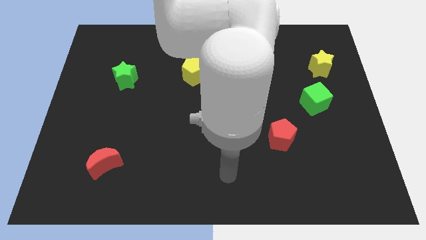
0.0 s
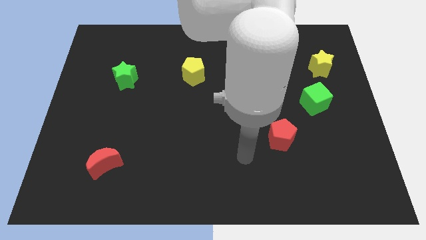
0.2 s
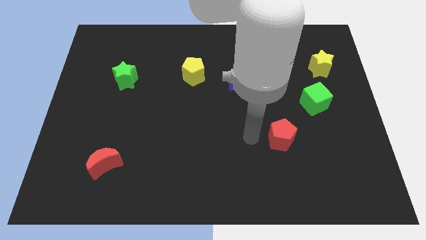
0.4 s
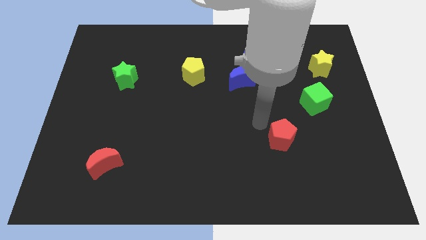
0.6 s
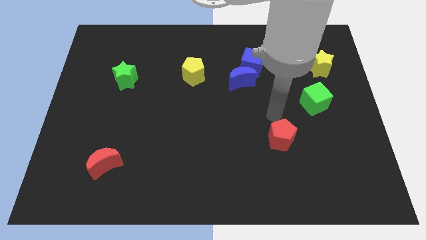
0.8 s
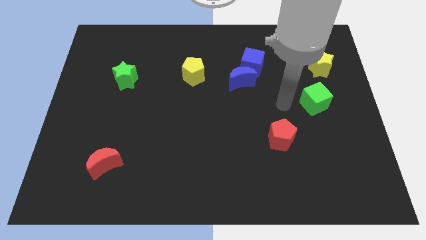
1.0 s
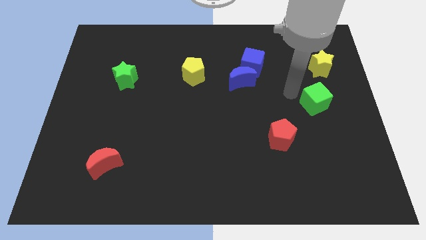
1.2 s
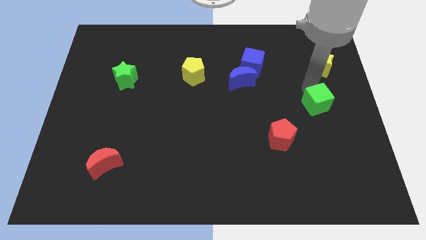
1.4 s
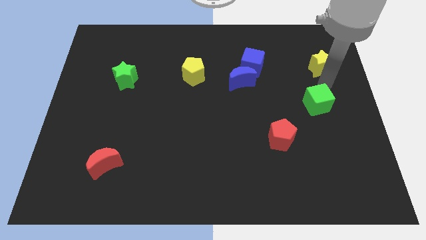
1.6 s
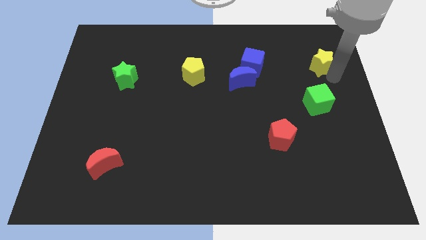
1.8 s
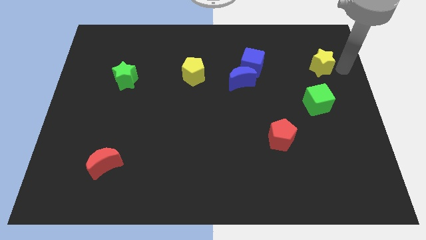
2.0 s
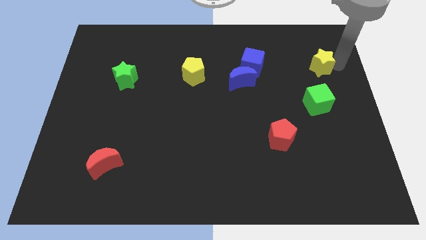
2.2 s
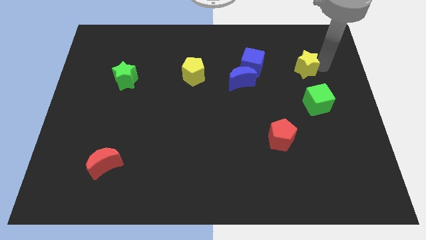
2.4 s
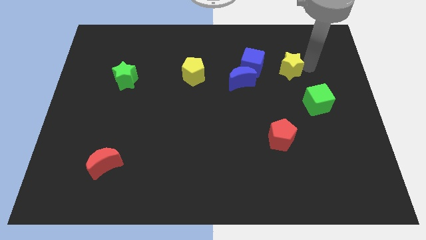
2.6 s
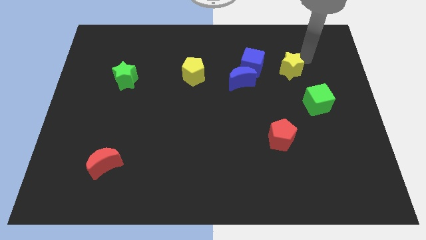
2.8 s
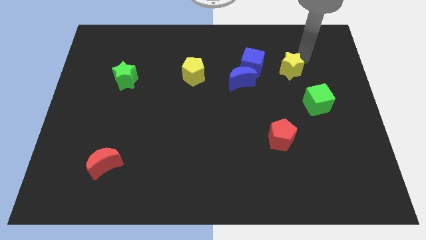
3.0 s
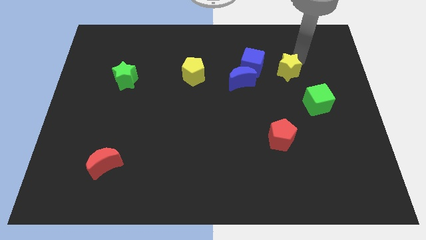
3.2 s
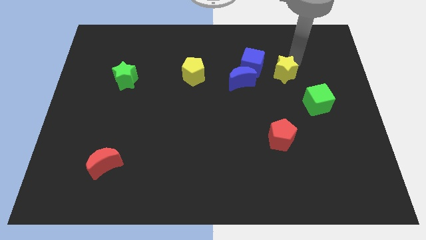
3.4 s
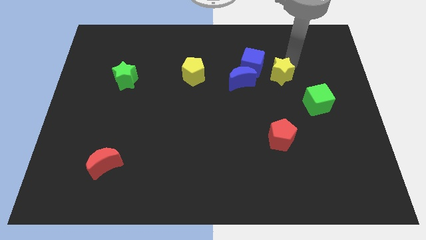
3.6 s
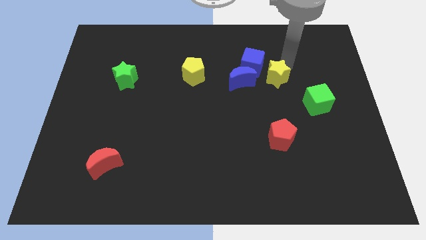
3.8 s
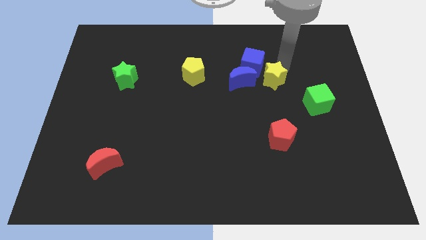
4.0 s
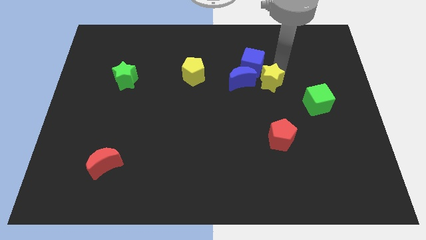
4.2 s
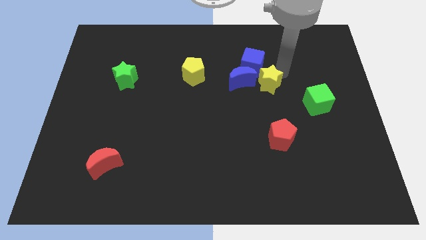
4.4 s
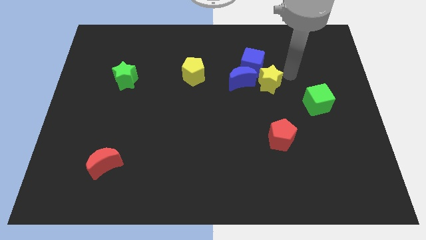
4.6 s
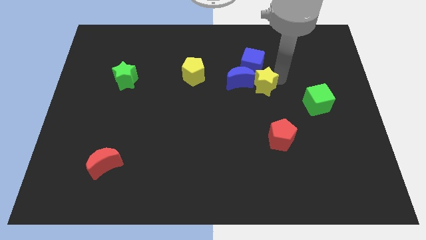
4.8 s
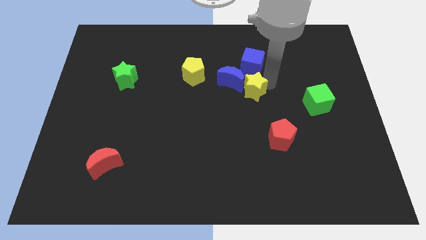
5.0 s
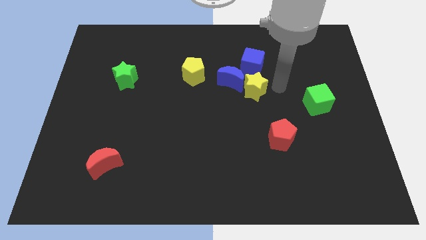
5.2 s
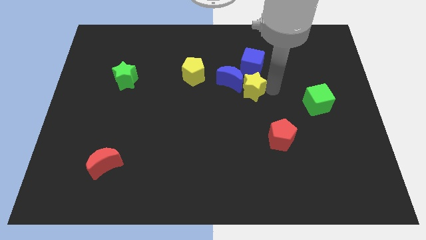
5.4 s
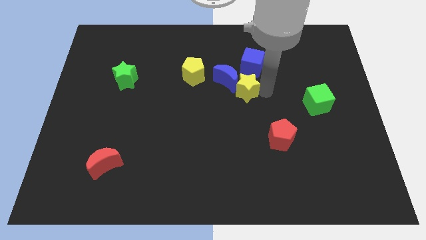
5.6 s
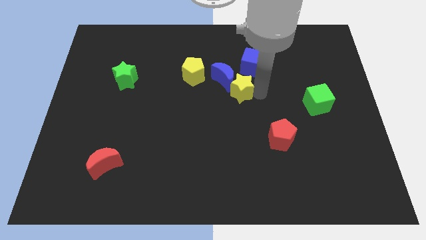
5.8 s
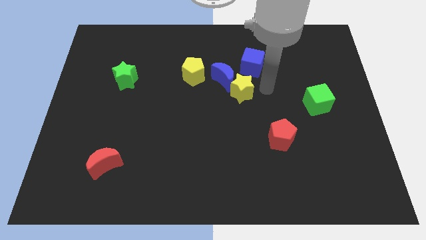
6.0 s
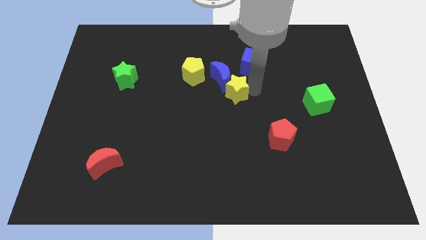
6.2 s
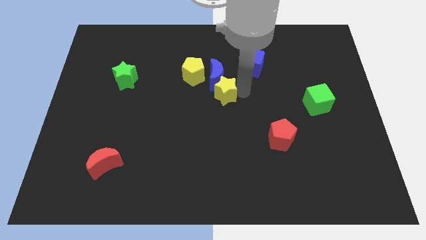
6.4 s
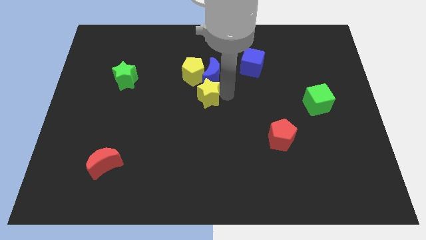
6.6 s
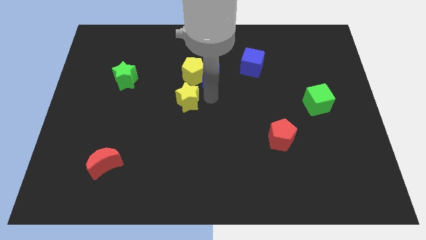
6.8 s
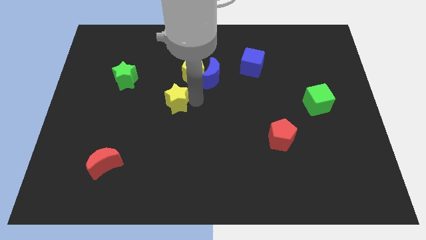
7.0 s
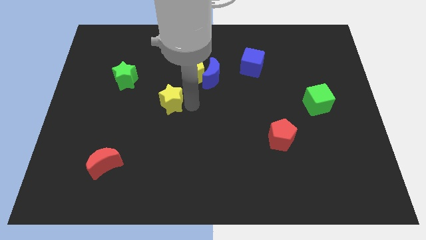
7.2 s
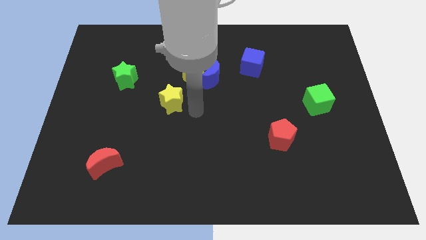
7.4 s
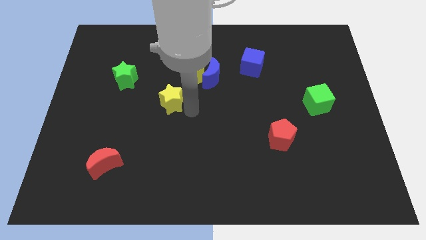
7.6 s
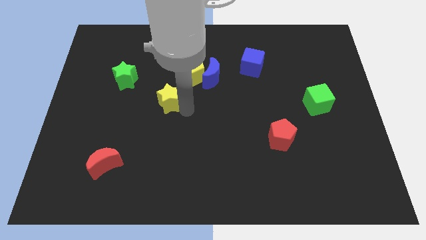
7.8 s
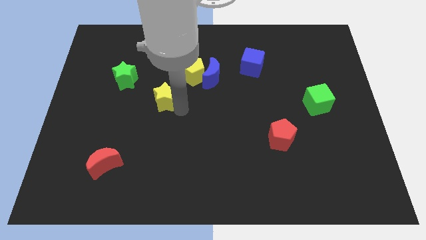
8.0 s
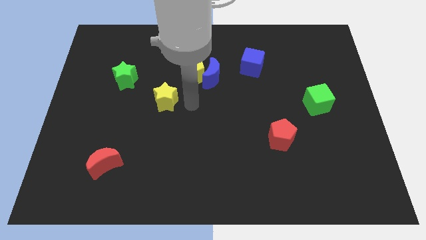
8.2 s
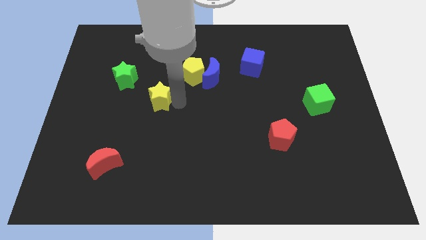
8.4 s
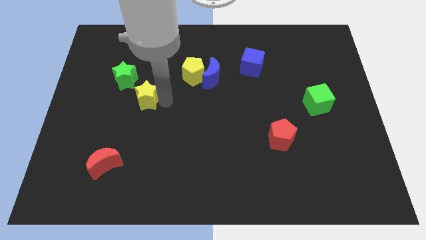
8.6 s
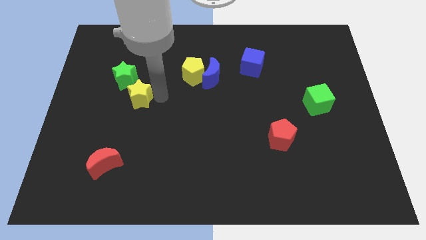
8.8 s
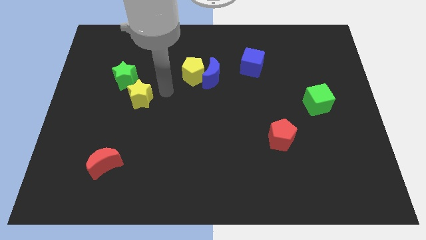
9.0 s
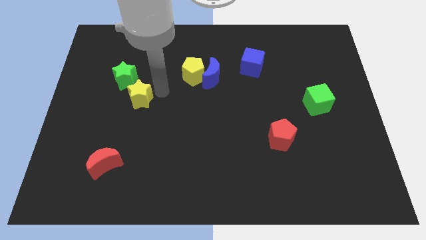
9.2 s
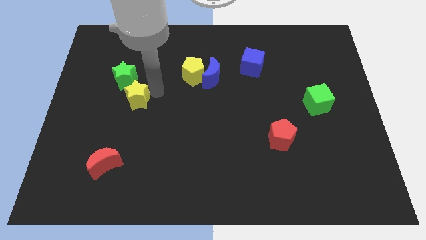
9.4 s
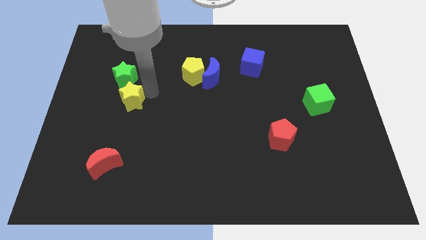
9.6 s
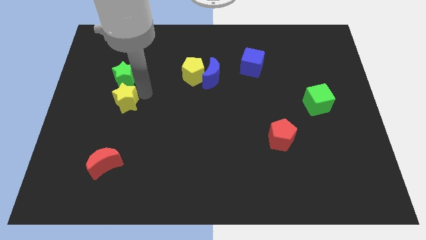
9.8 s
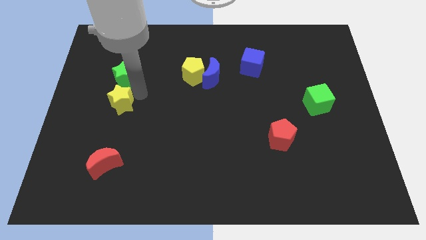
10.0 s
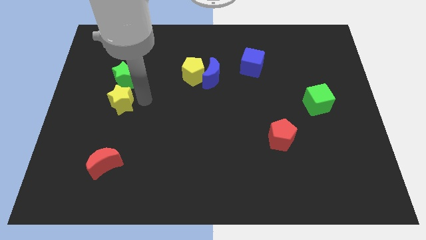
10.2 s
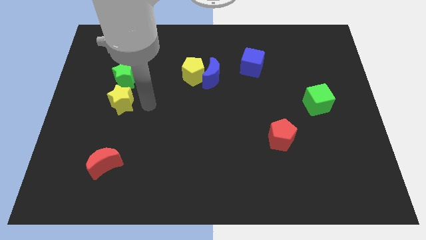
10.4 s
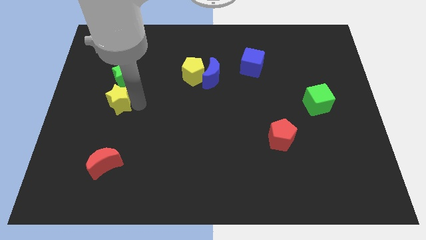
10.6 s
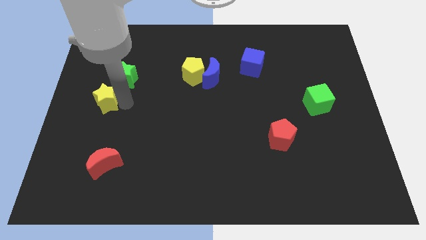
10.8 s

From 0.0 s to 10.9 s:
push the yellow star to the center left

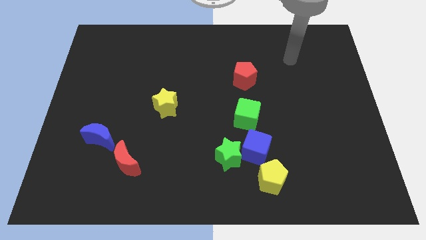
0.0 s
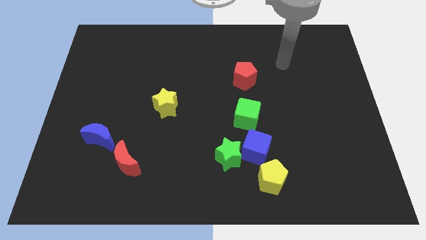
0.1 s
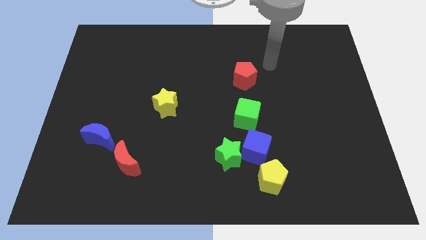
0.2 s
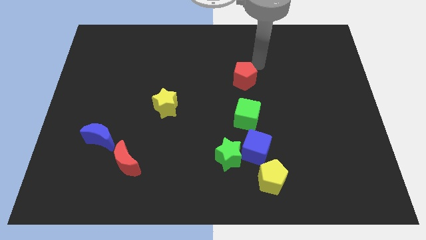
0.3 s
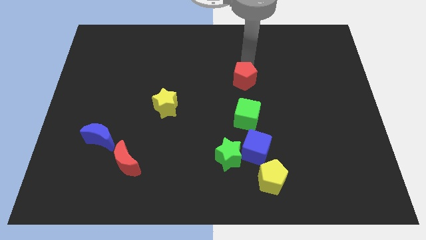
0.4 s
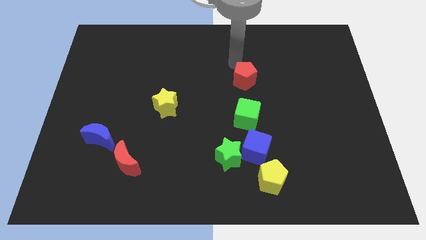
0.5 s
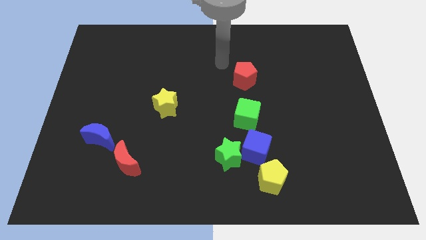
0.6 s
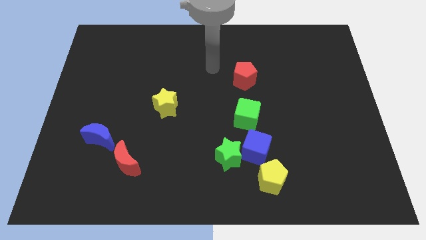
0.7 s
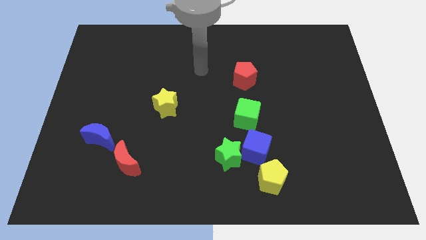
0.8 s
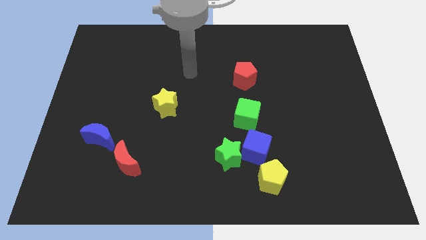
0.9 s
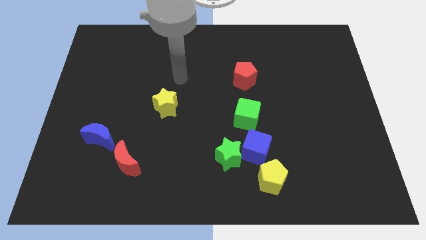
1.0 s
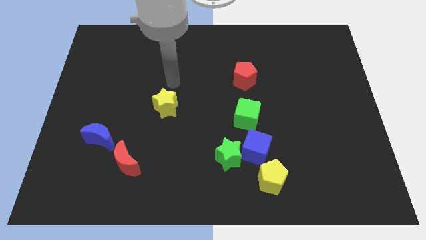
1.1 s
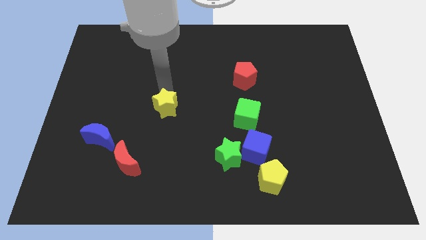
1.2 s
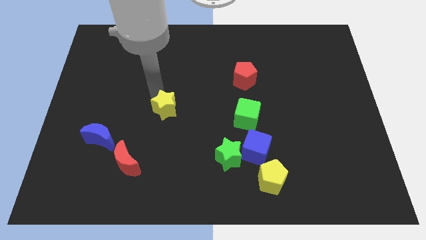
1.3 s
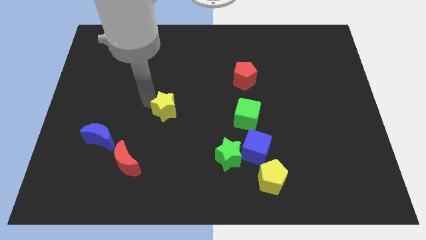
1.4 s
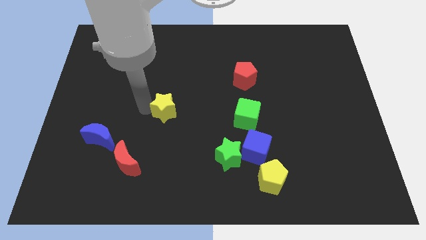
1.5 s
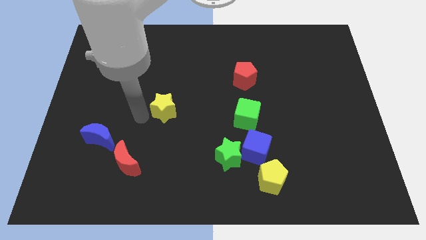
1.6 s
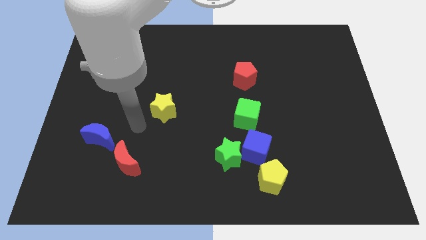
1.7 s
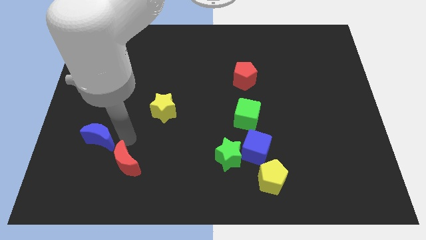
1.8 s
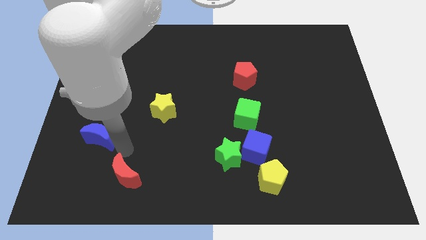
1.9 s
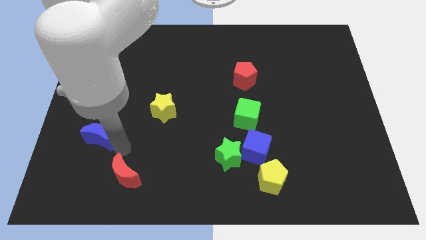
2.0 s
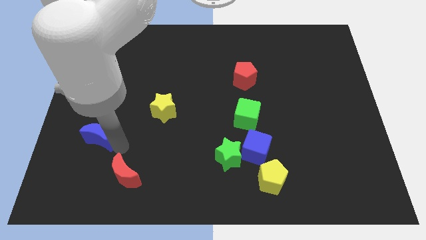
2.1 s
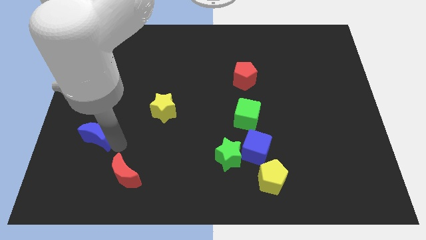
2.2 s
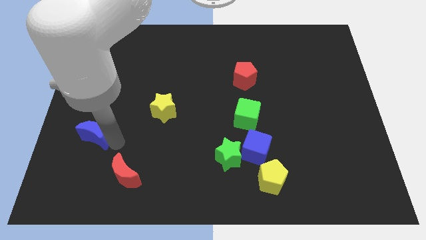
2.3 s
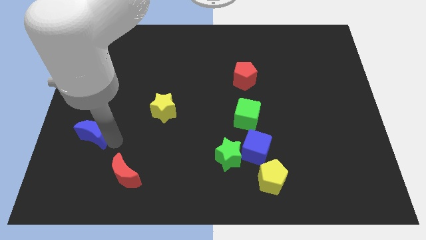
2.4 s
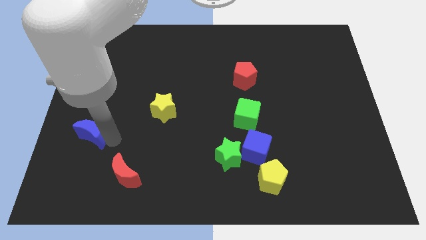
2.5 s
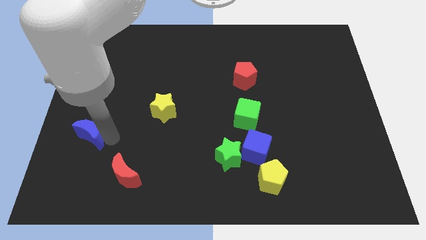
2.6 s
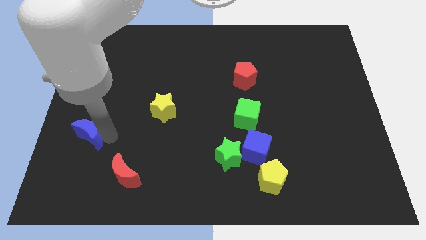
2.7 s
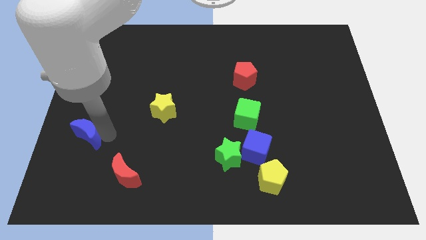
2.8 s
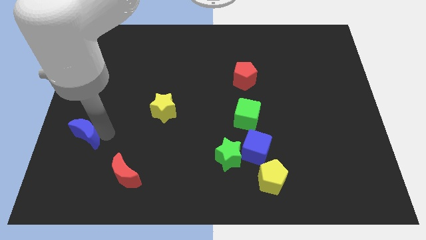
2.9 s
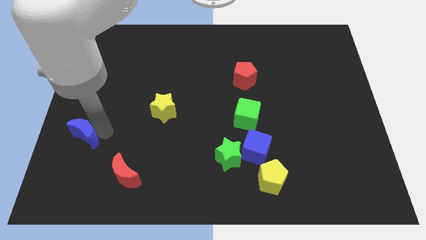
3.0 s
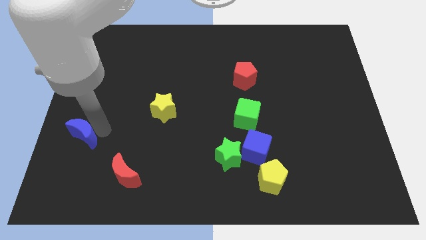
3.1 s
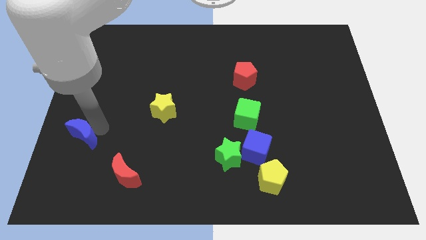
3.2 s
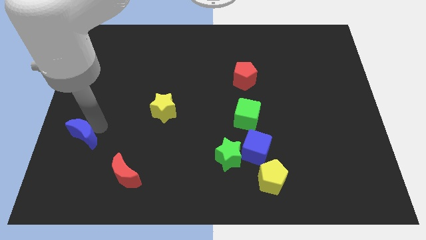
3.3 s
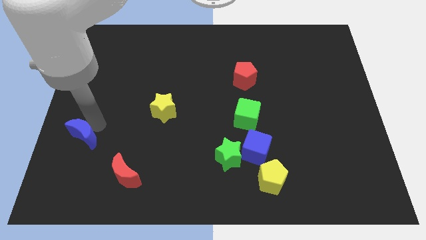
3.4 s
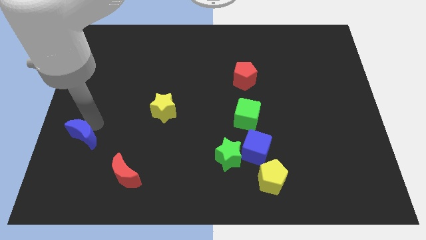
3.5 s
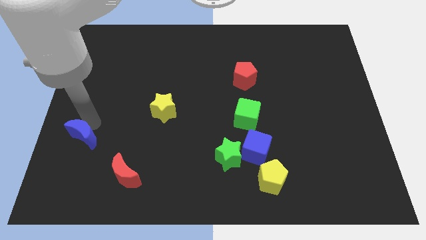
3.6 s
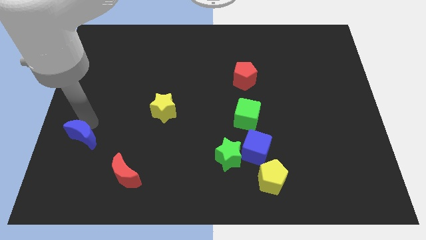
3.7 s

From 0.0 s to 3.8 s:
slide the blue moon to the left side of the board
